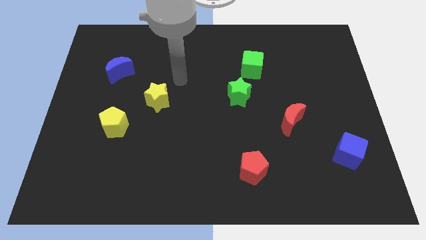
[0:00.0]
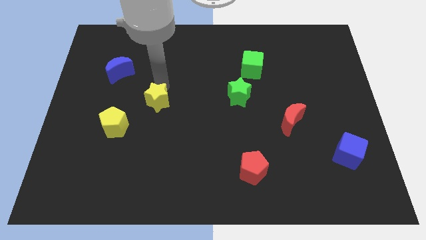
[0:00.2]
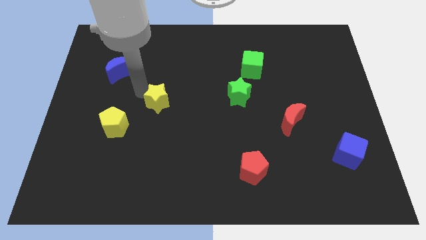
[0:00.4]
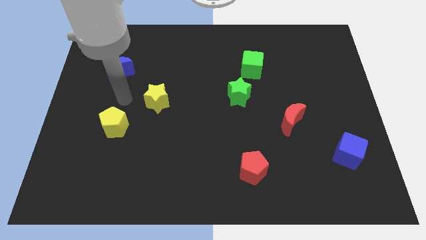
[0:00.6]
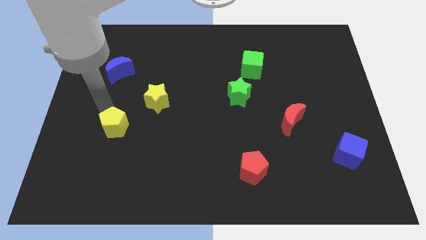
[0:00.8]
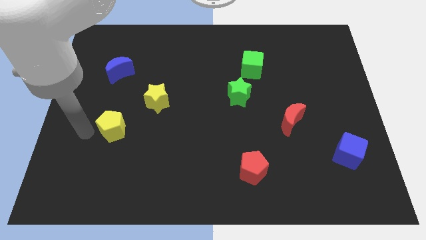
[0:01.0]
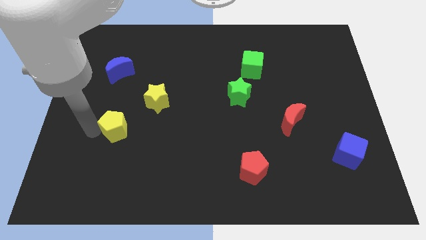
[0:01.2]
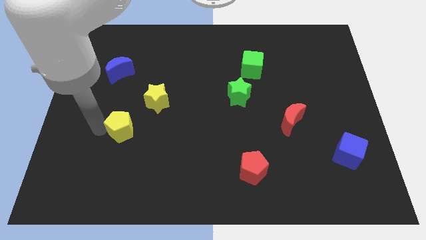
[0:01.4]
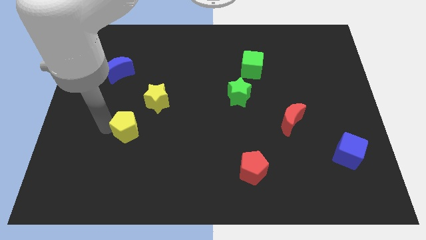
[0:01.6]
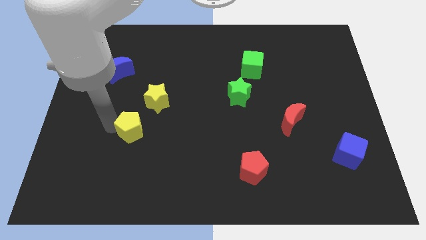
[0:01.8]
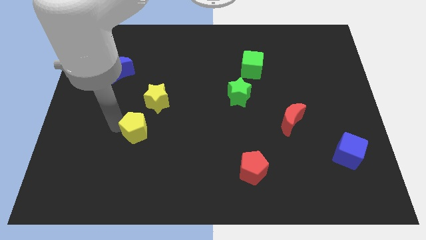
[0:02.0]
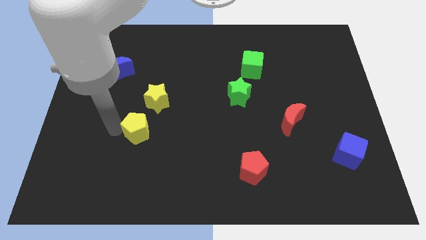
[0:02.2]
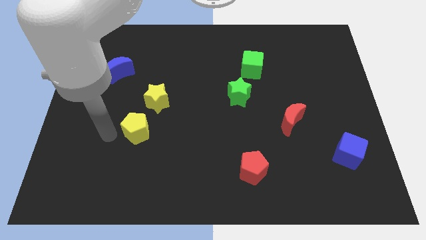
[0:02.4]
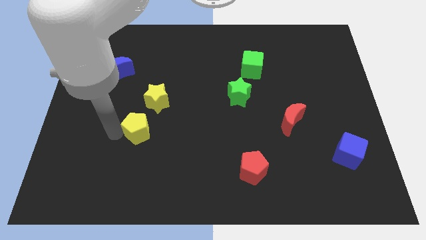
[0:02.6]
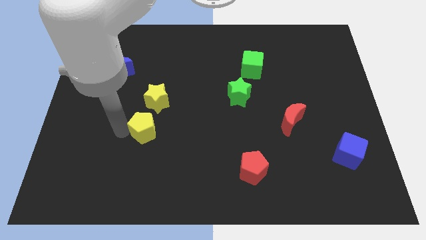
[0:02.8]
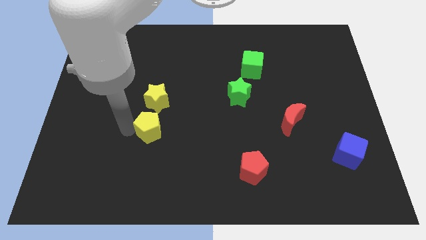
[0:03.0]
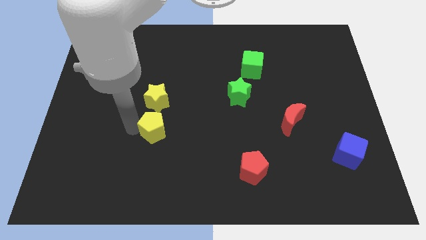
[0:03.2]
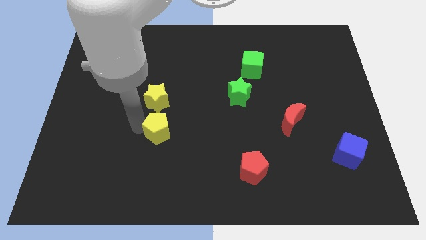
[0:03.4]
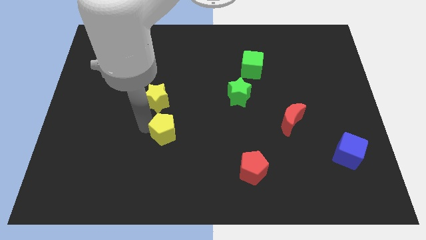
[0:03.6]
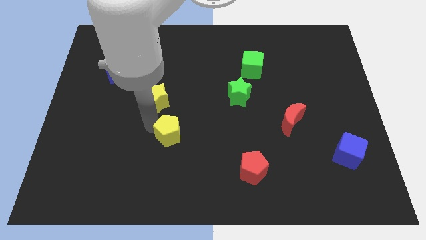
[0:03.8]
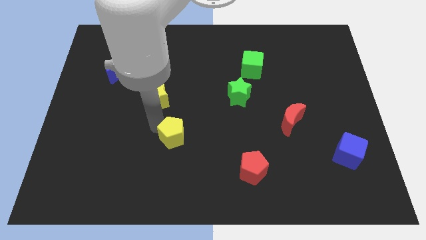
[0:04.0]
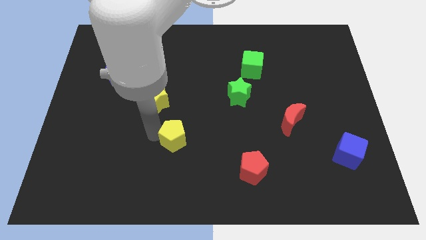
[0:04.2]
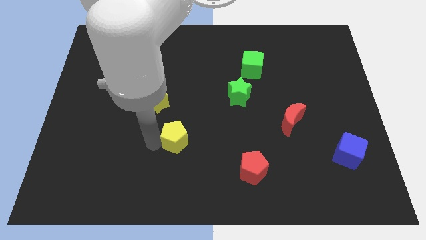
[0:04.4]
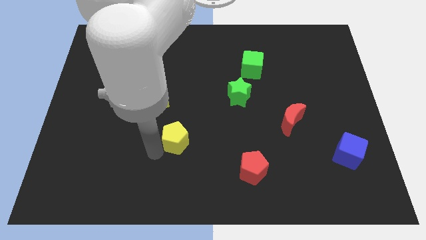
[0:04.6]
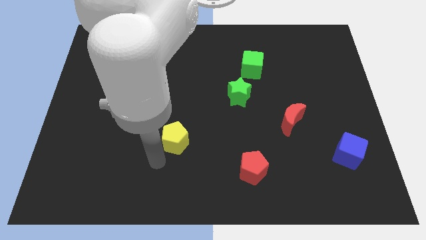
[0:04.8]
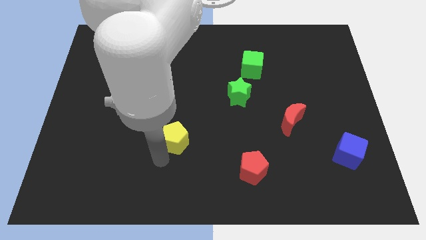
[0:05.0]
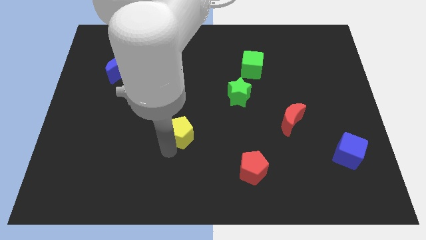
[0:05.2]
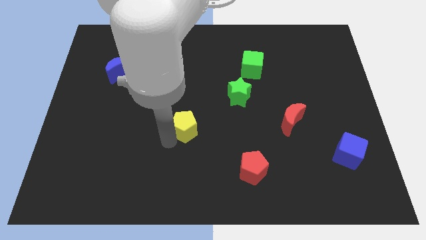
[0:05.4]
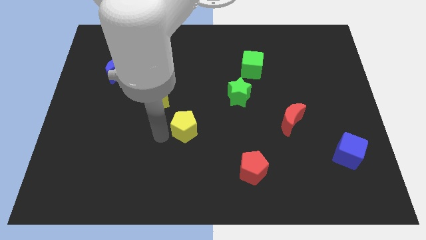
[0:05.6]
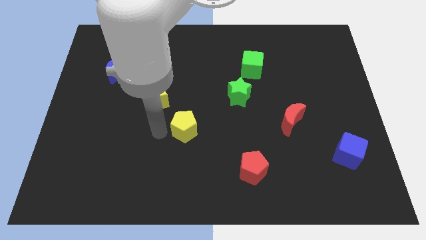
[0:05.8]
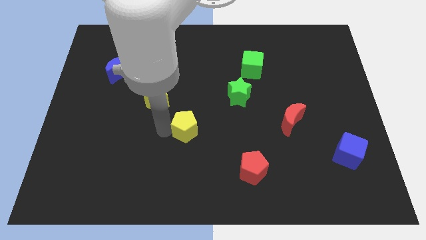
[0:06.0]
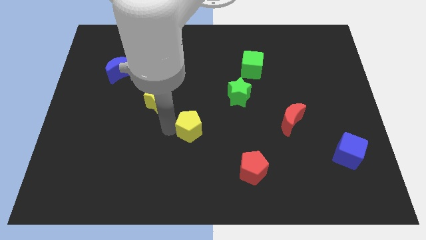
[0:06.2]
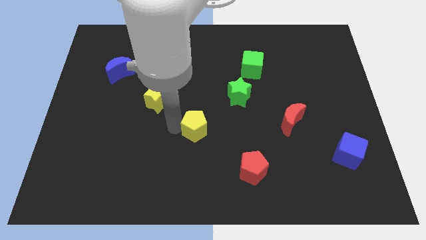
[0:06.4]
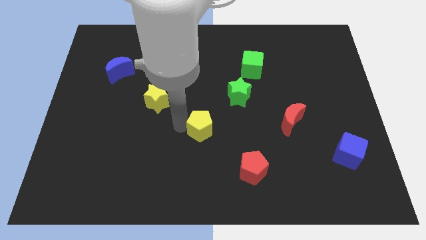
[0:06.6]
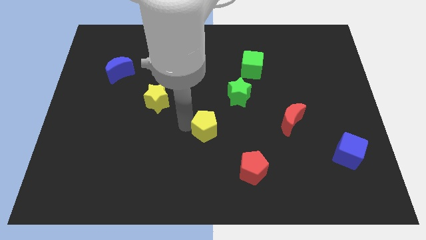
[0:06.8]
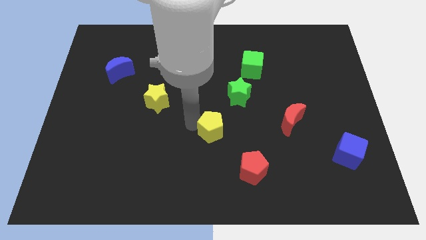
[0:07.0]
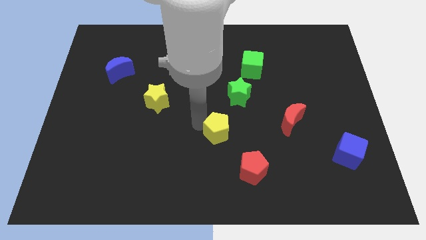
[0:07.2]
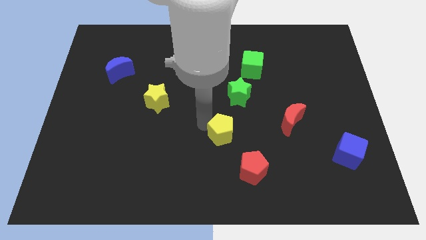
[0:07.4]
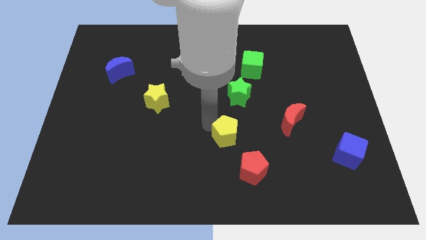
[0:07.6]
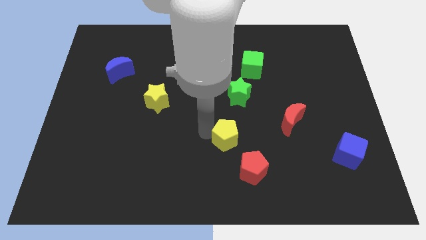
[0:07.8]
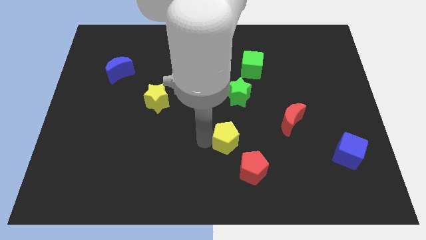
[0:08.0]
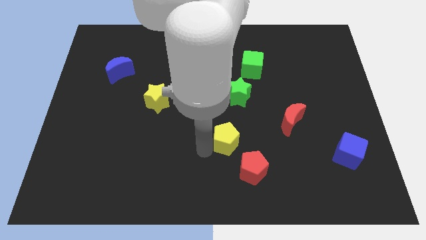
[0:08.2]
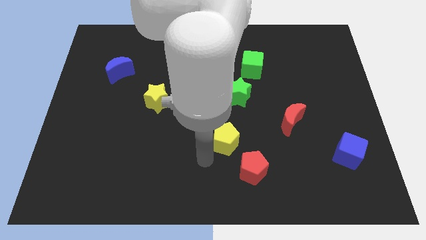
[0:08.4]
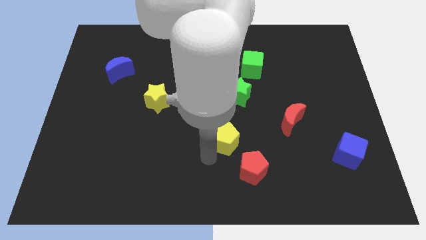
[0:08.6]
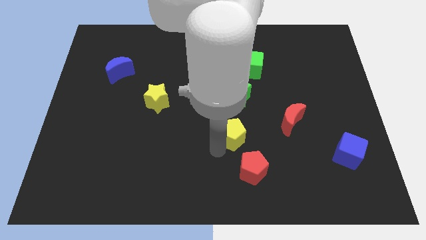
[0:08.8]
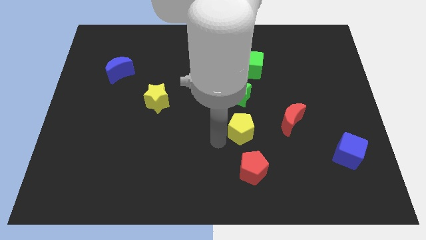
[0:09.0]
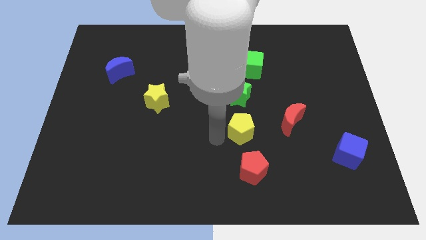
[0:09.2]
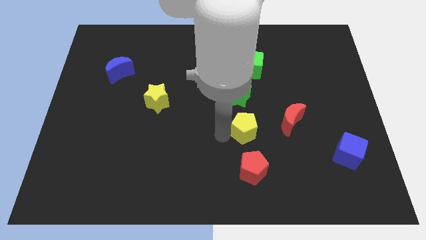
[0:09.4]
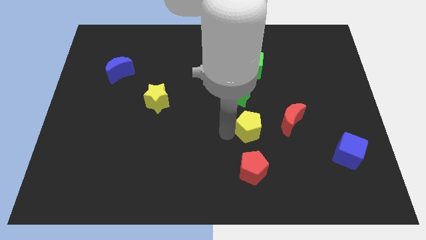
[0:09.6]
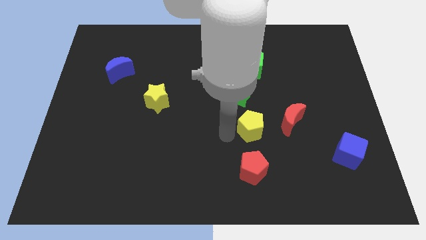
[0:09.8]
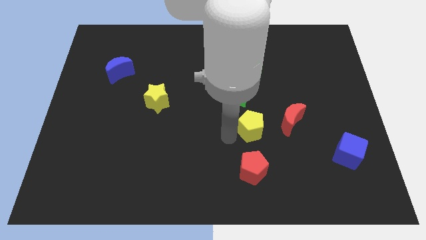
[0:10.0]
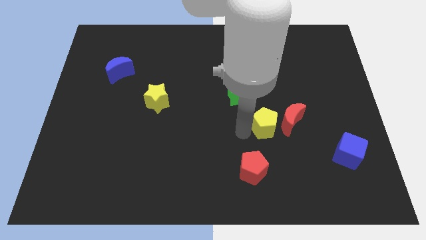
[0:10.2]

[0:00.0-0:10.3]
slide the yellow pentagon close to the red moon

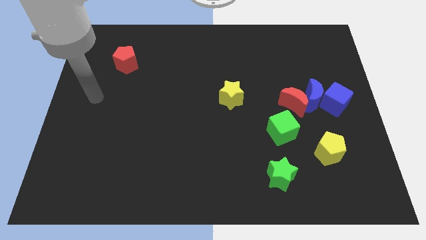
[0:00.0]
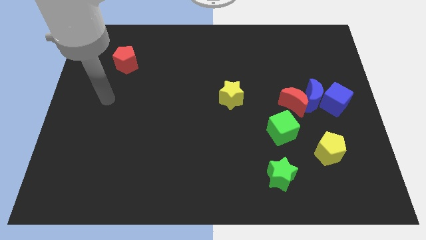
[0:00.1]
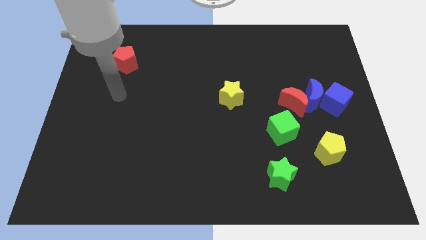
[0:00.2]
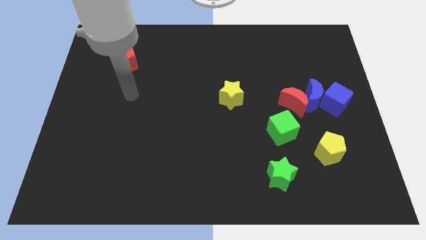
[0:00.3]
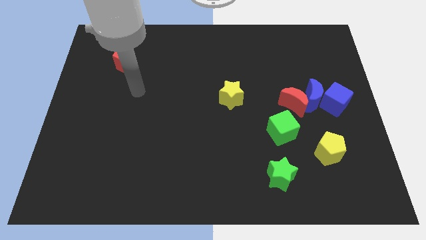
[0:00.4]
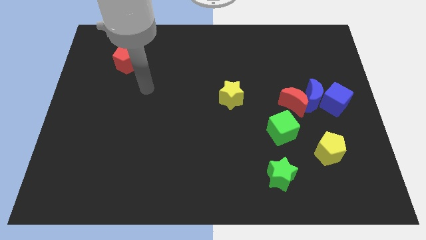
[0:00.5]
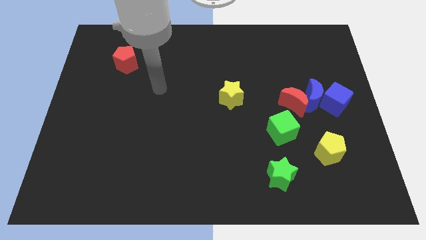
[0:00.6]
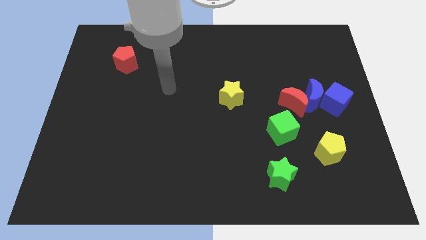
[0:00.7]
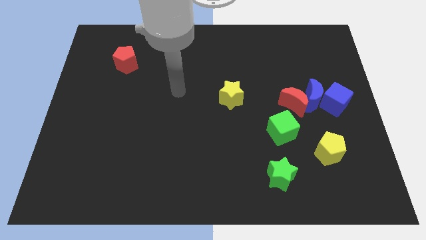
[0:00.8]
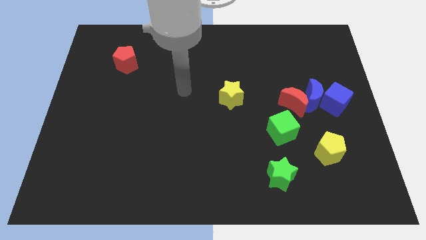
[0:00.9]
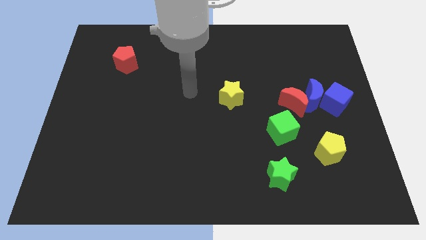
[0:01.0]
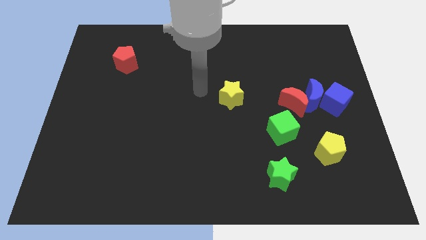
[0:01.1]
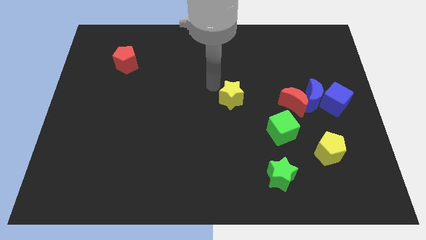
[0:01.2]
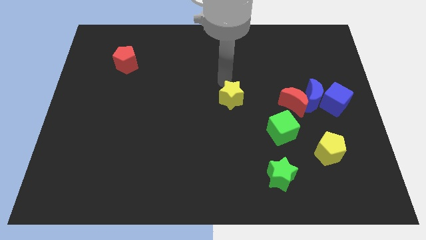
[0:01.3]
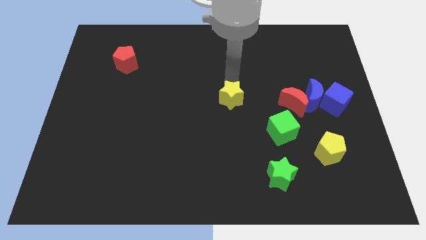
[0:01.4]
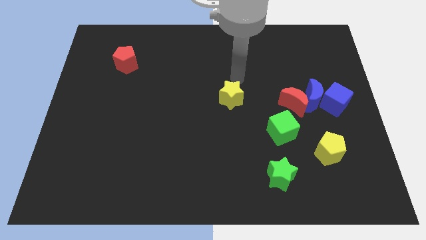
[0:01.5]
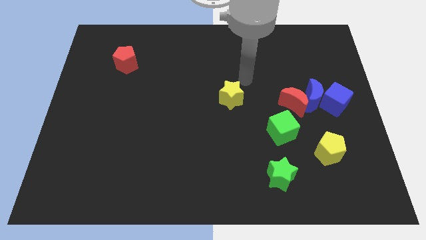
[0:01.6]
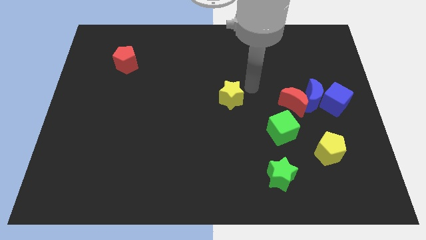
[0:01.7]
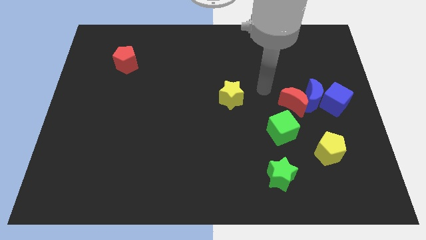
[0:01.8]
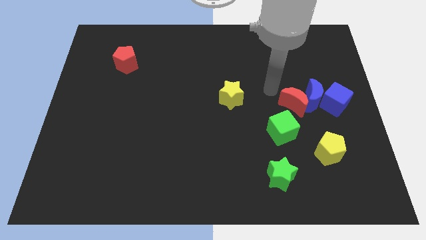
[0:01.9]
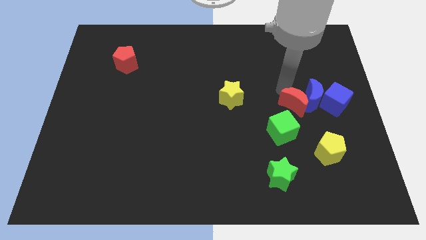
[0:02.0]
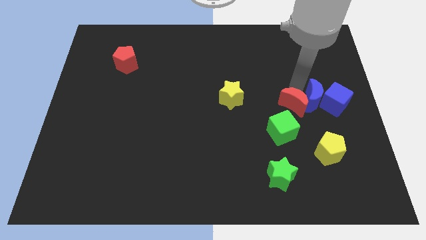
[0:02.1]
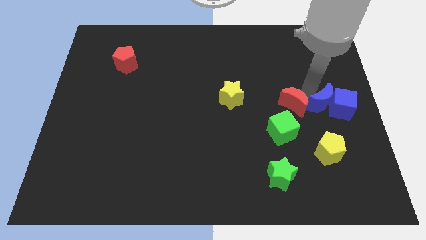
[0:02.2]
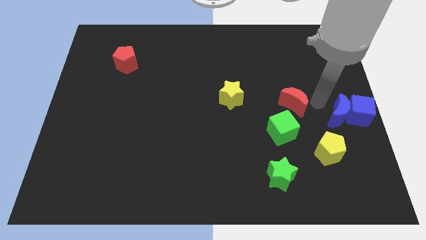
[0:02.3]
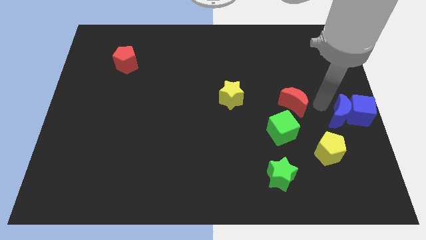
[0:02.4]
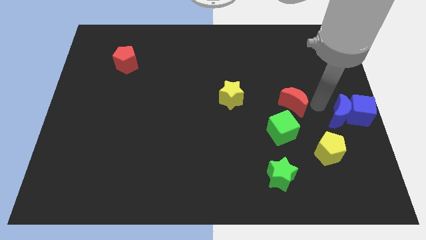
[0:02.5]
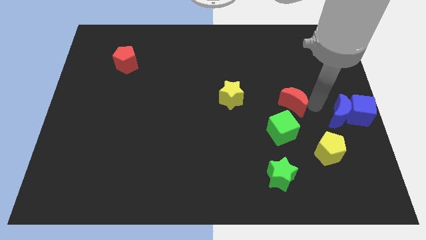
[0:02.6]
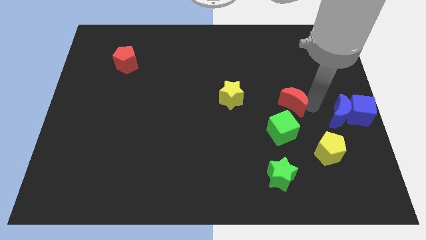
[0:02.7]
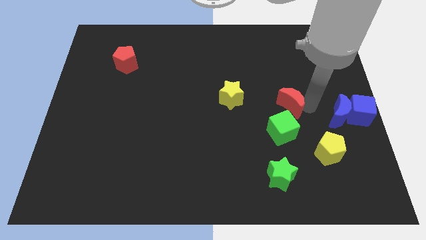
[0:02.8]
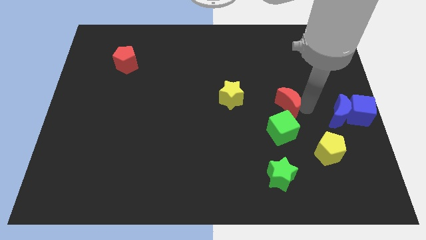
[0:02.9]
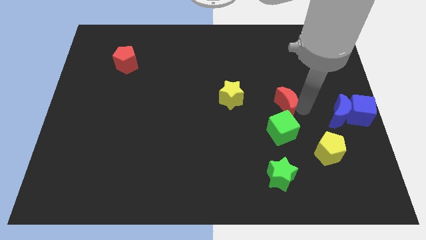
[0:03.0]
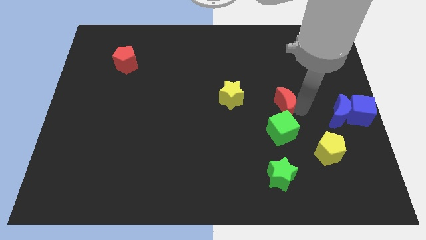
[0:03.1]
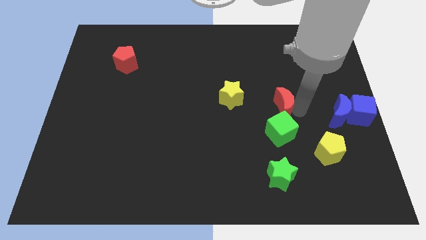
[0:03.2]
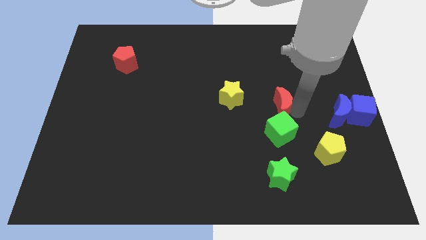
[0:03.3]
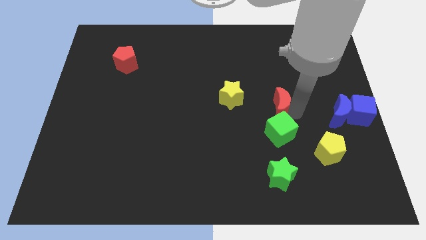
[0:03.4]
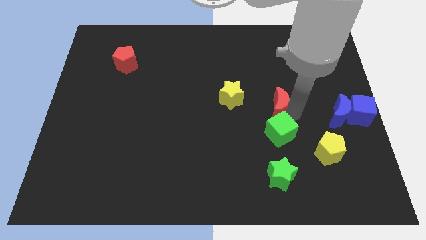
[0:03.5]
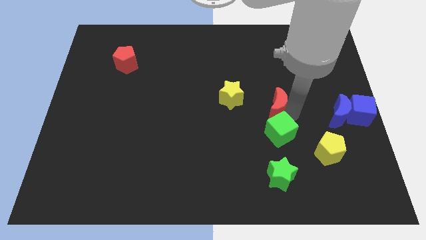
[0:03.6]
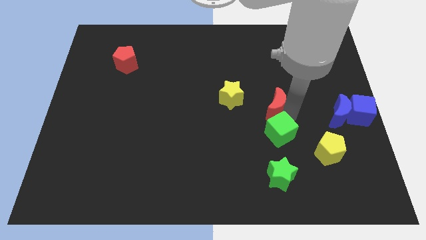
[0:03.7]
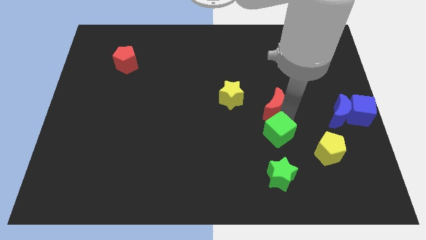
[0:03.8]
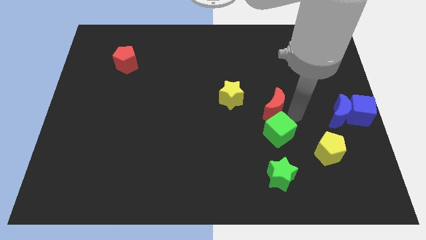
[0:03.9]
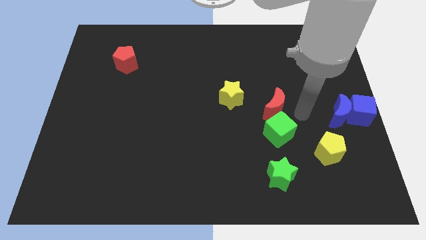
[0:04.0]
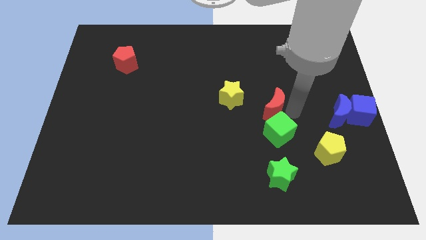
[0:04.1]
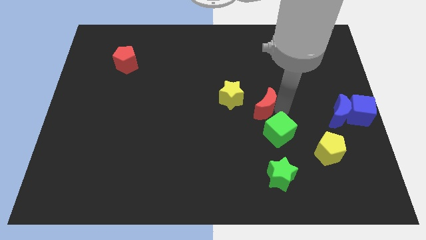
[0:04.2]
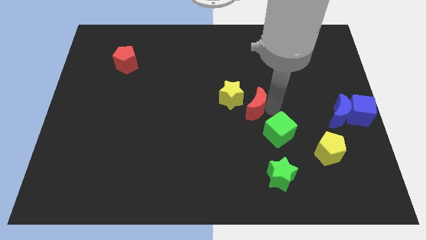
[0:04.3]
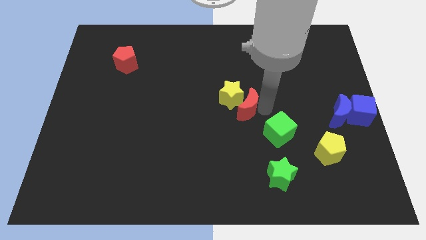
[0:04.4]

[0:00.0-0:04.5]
slide the red moon towards the yellow star
